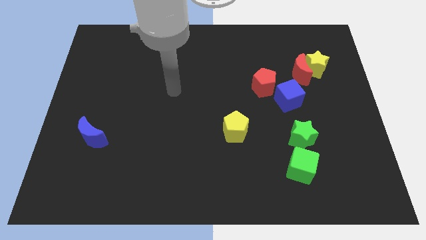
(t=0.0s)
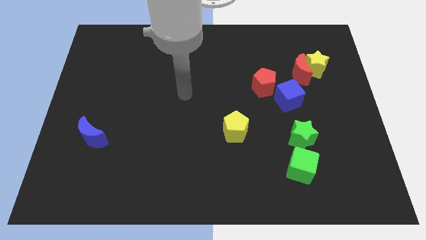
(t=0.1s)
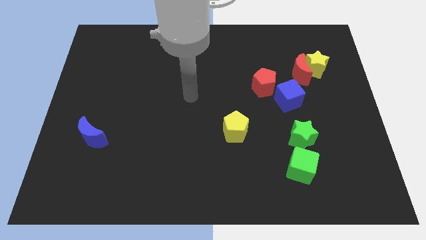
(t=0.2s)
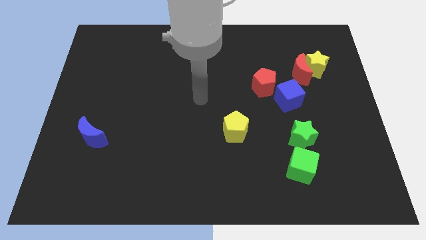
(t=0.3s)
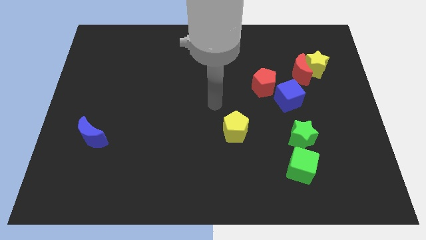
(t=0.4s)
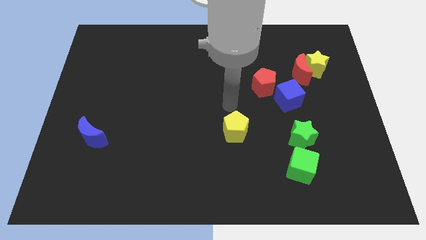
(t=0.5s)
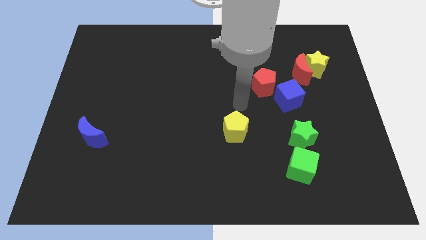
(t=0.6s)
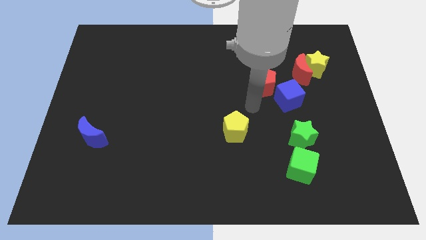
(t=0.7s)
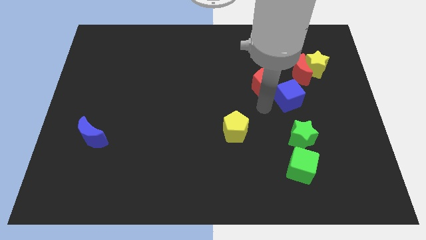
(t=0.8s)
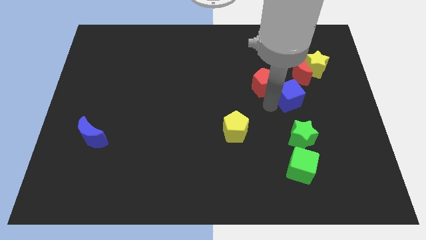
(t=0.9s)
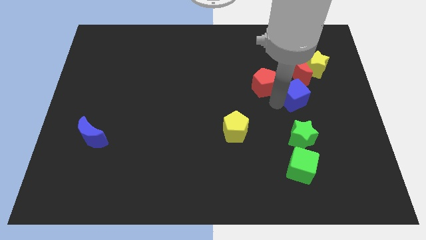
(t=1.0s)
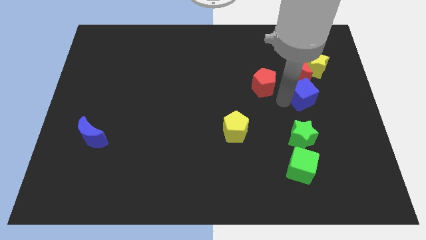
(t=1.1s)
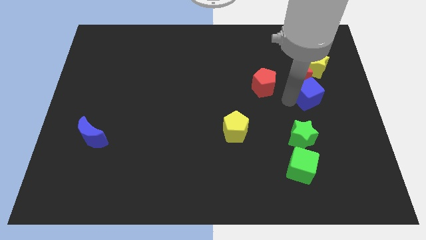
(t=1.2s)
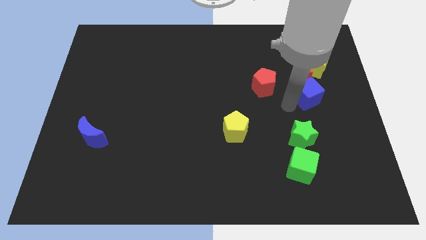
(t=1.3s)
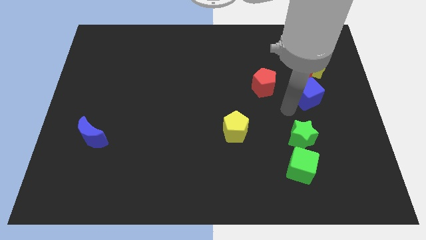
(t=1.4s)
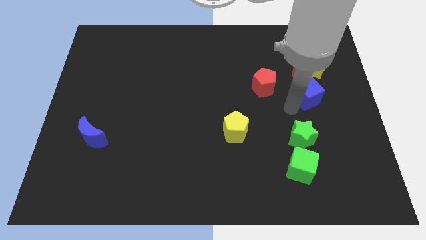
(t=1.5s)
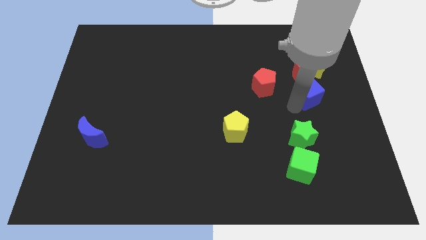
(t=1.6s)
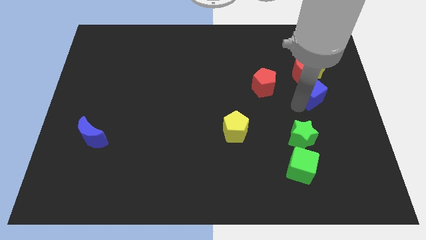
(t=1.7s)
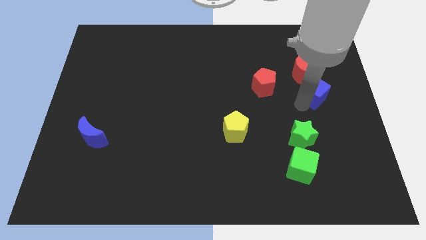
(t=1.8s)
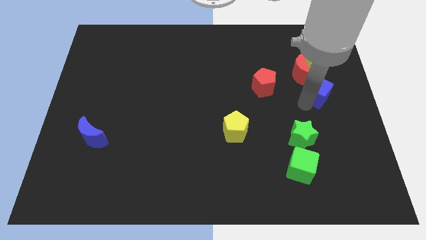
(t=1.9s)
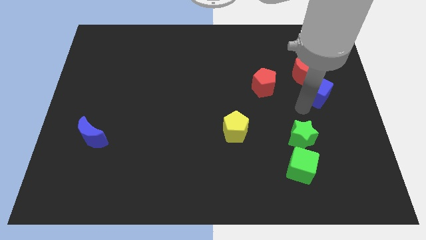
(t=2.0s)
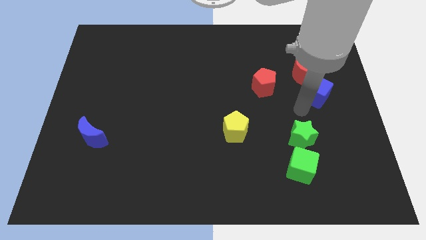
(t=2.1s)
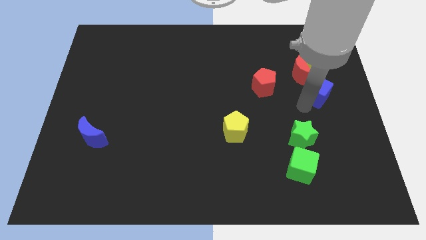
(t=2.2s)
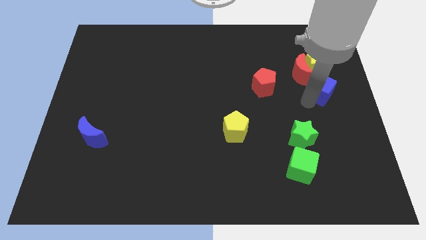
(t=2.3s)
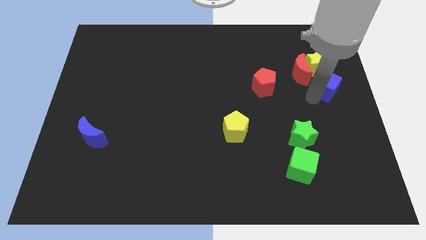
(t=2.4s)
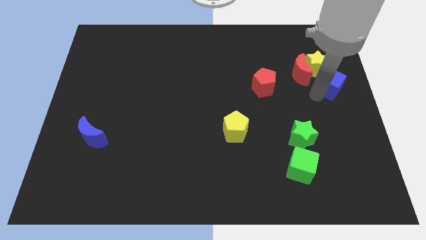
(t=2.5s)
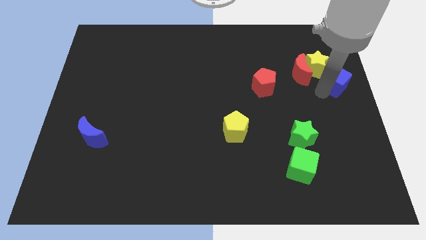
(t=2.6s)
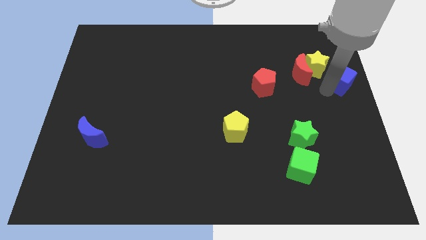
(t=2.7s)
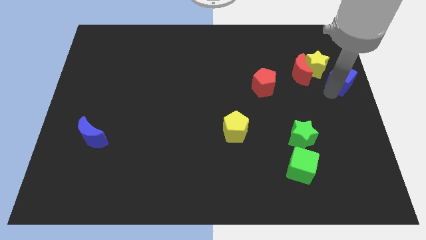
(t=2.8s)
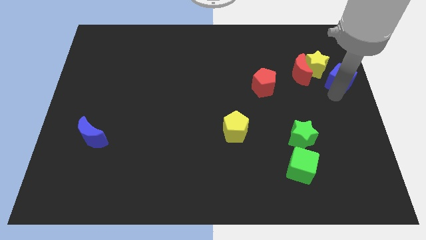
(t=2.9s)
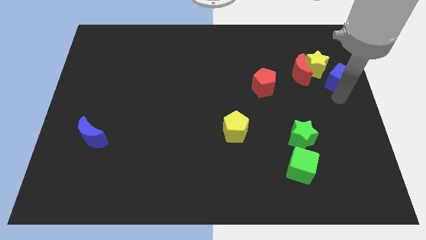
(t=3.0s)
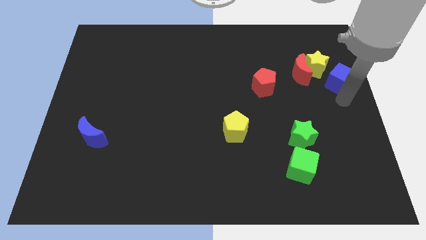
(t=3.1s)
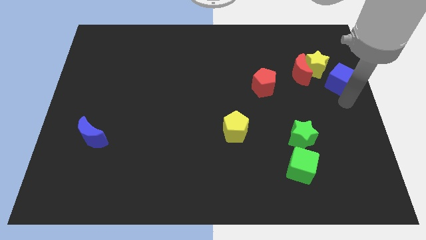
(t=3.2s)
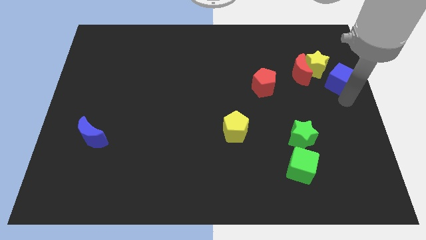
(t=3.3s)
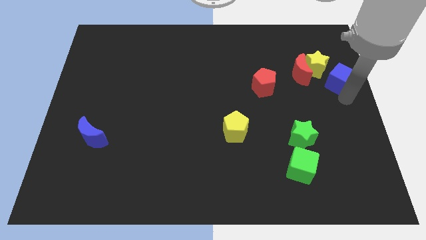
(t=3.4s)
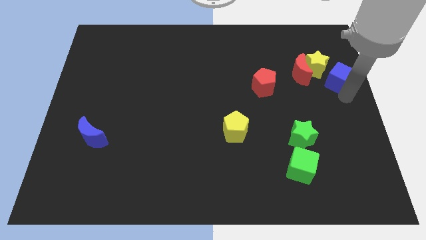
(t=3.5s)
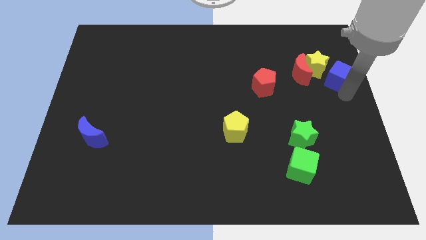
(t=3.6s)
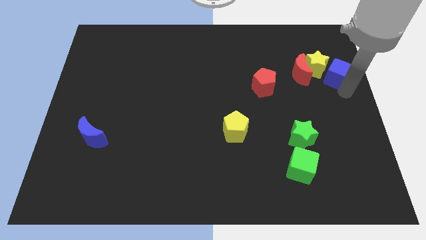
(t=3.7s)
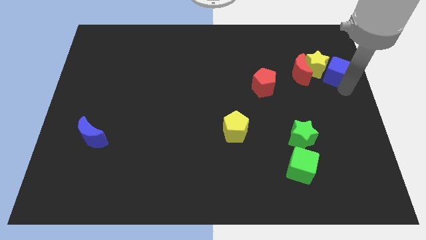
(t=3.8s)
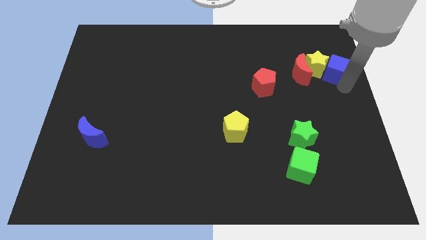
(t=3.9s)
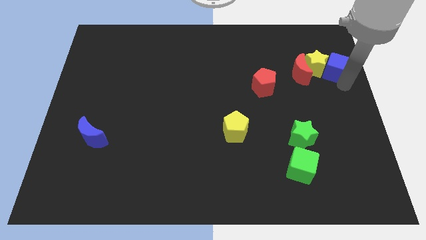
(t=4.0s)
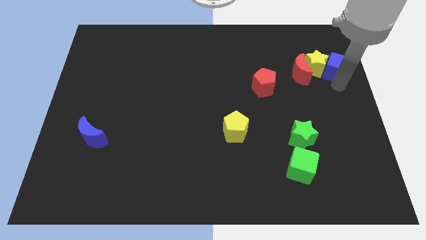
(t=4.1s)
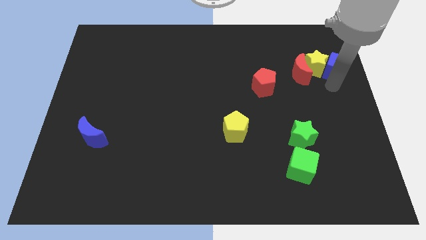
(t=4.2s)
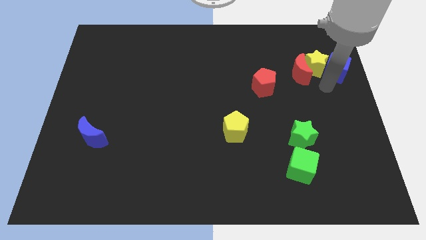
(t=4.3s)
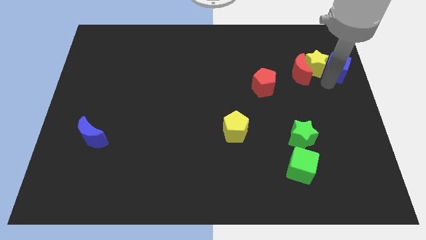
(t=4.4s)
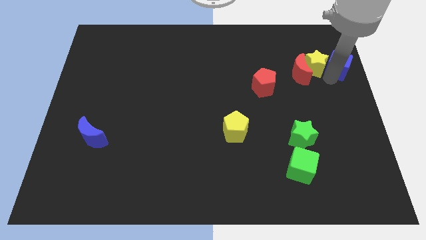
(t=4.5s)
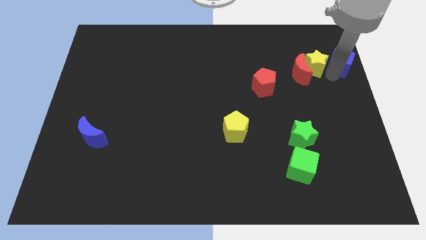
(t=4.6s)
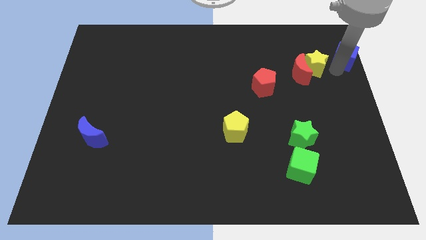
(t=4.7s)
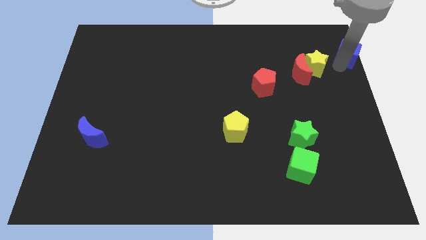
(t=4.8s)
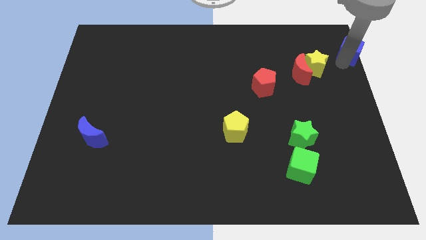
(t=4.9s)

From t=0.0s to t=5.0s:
push the blue cube to the top right of the board

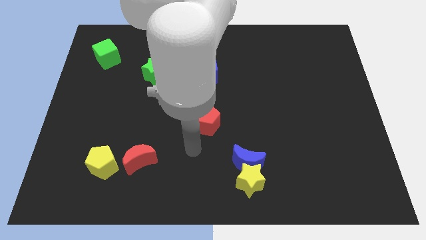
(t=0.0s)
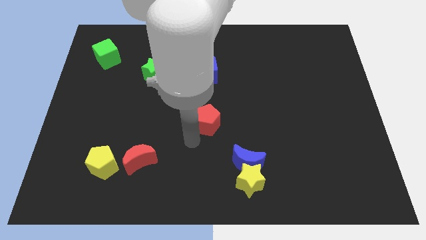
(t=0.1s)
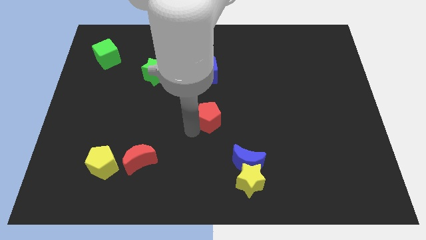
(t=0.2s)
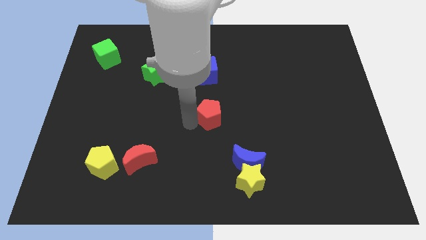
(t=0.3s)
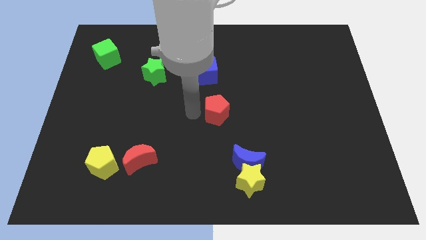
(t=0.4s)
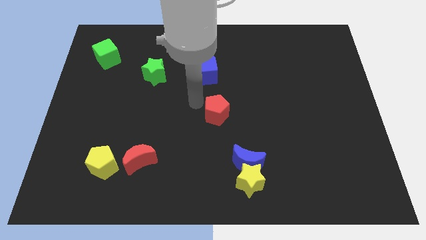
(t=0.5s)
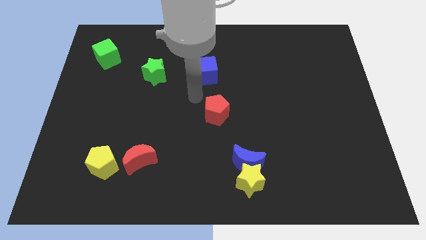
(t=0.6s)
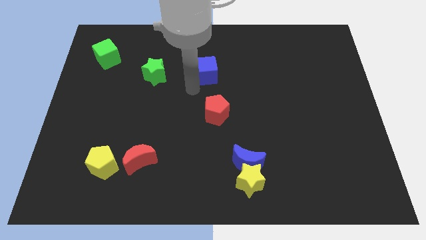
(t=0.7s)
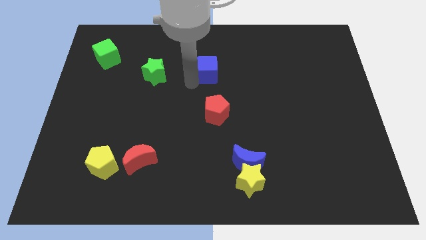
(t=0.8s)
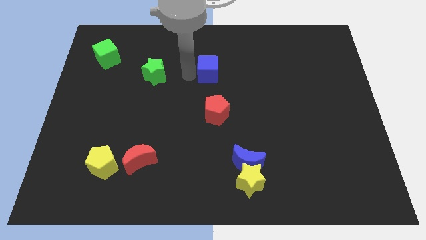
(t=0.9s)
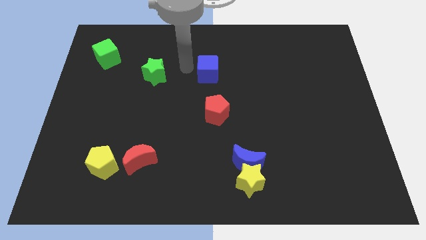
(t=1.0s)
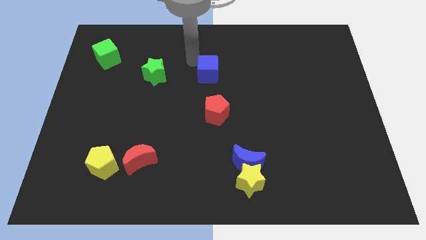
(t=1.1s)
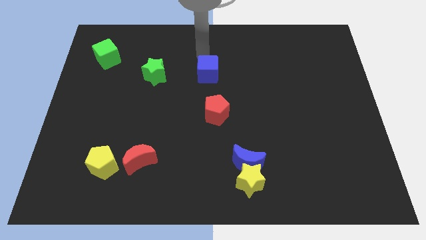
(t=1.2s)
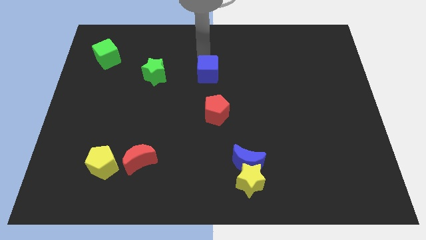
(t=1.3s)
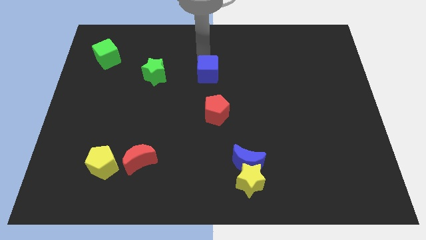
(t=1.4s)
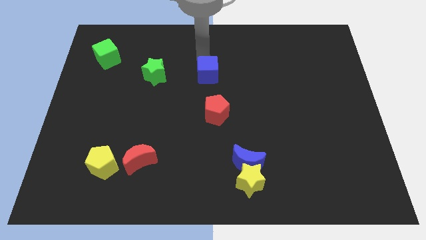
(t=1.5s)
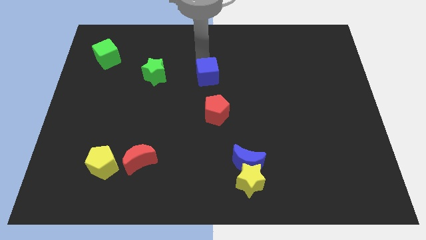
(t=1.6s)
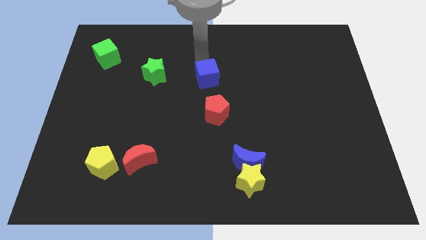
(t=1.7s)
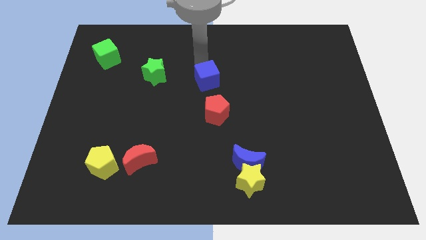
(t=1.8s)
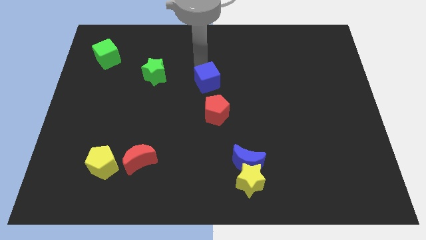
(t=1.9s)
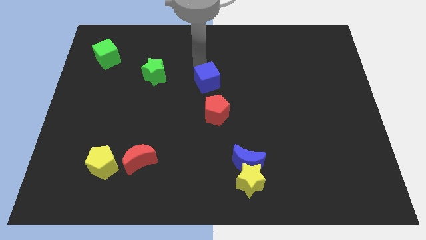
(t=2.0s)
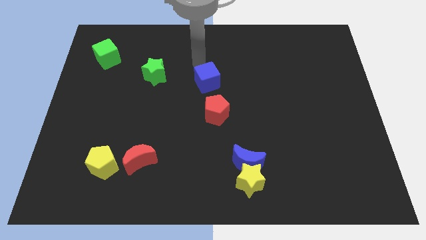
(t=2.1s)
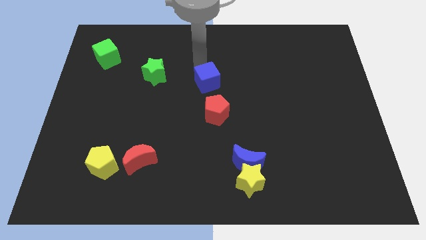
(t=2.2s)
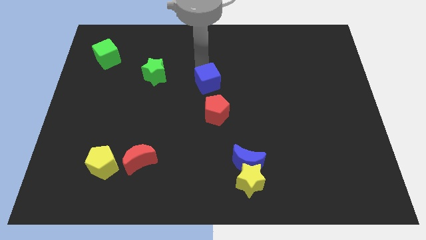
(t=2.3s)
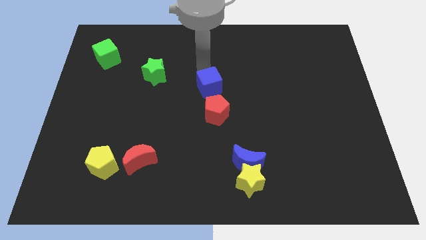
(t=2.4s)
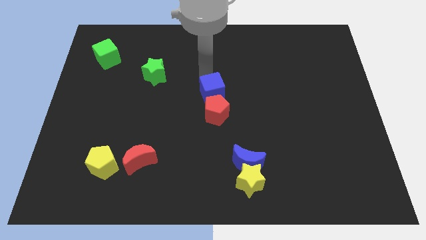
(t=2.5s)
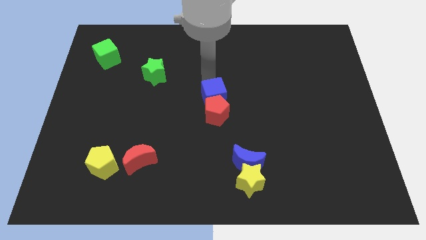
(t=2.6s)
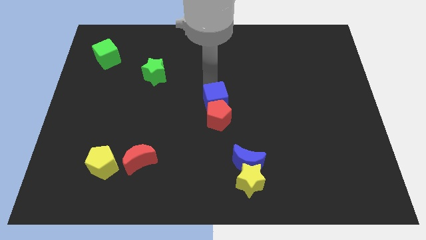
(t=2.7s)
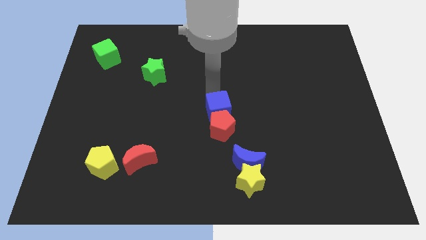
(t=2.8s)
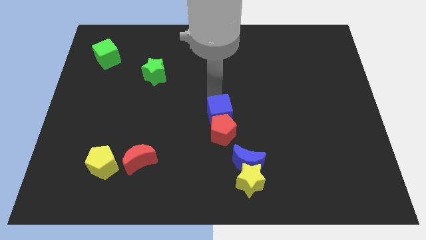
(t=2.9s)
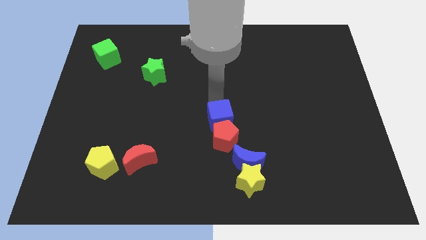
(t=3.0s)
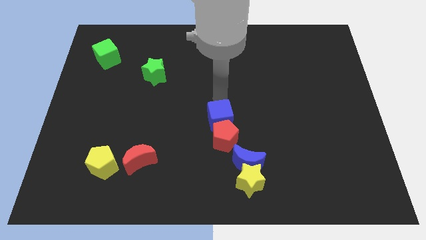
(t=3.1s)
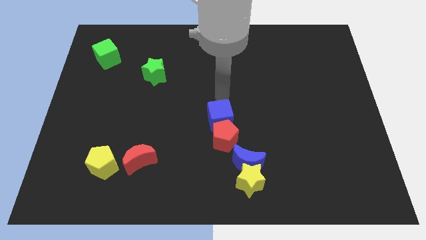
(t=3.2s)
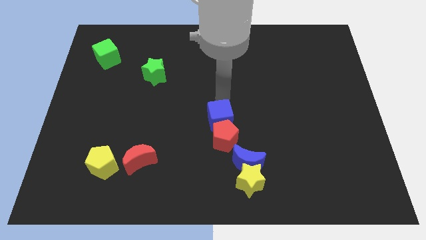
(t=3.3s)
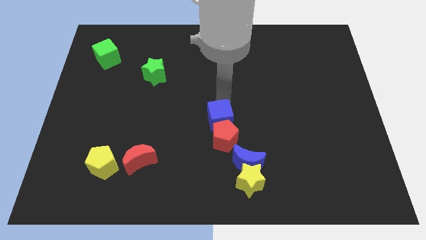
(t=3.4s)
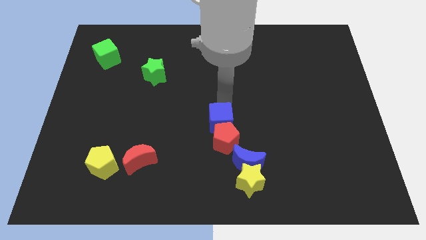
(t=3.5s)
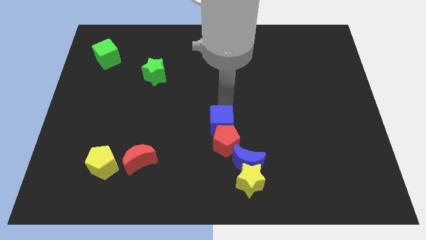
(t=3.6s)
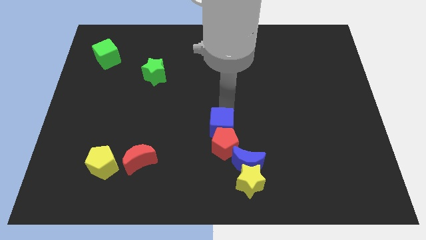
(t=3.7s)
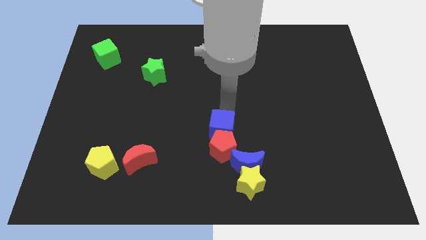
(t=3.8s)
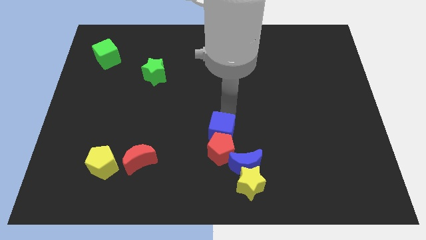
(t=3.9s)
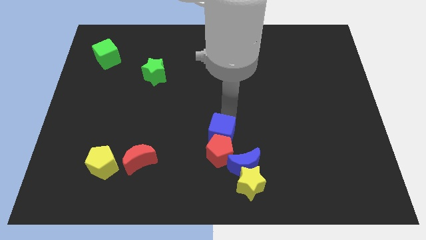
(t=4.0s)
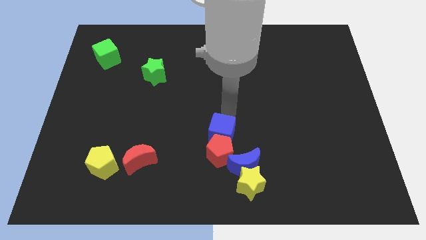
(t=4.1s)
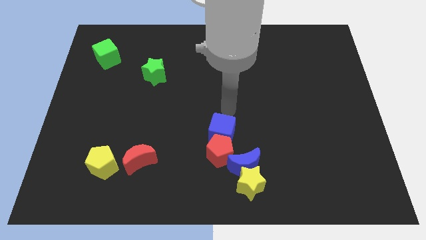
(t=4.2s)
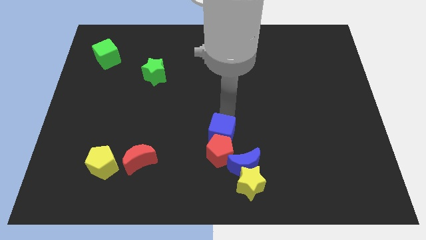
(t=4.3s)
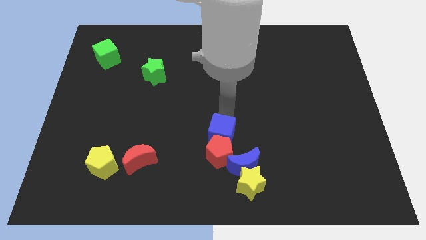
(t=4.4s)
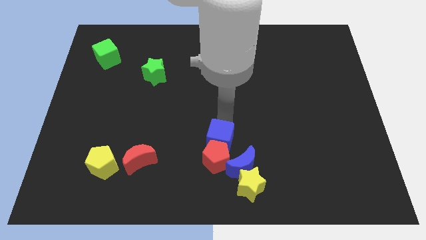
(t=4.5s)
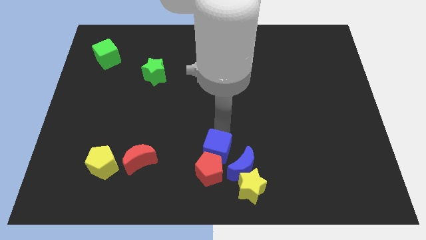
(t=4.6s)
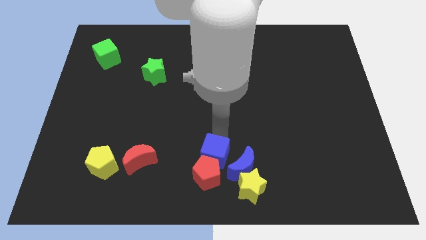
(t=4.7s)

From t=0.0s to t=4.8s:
put the blue cube to the bottom
